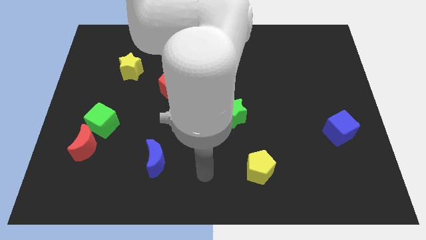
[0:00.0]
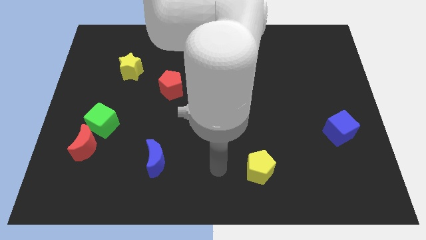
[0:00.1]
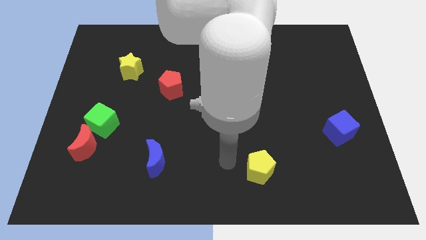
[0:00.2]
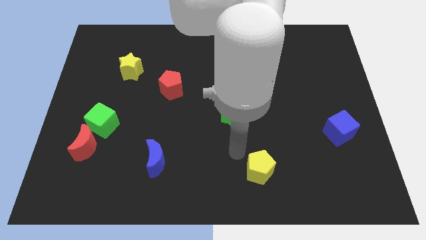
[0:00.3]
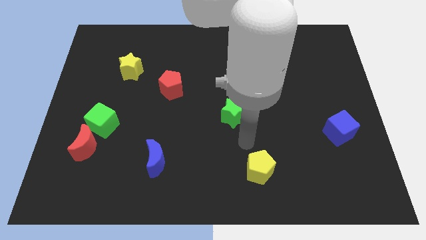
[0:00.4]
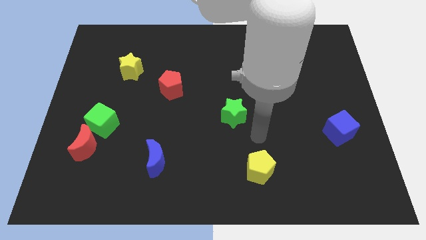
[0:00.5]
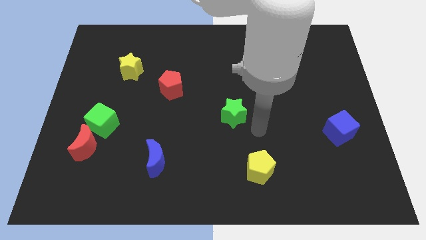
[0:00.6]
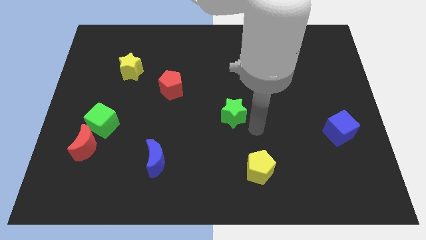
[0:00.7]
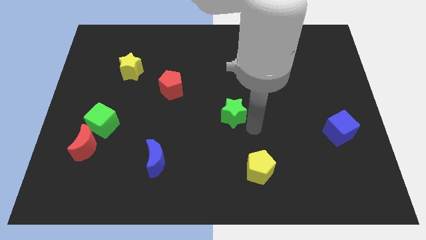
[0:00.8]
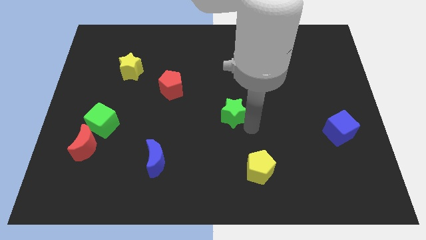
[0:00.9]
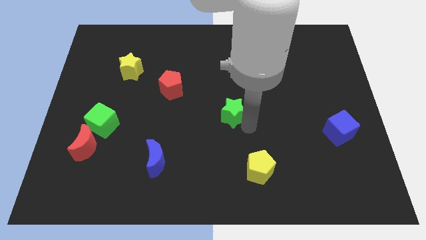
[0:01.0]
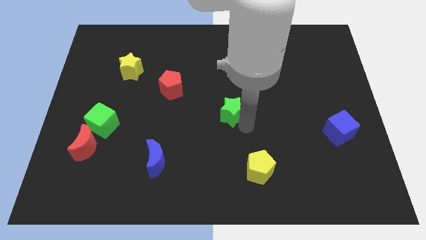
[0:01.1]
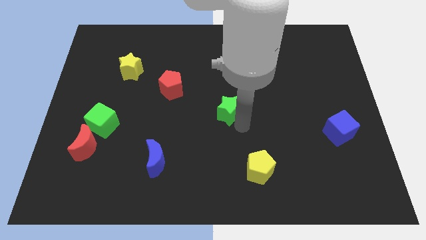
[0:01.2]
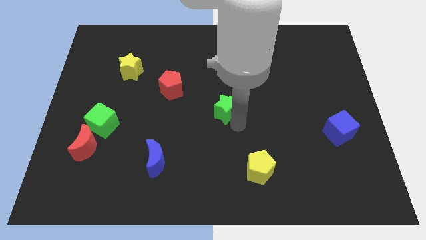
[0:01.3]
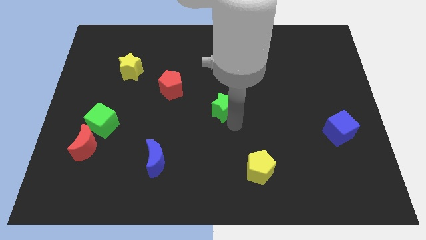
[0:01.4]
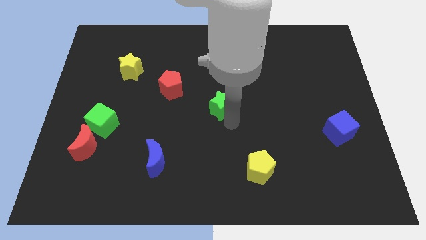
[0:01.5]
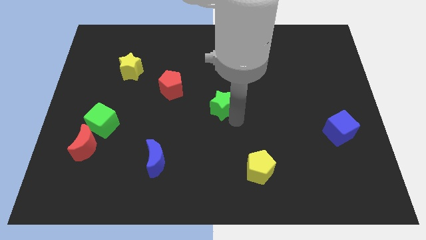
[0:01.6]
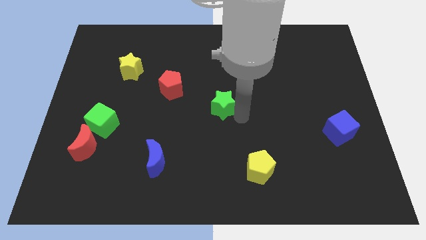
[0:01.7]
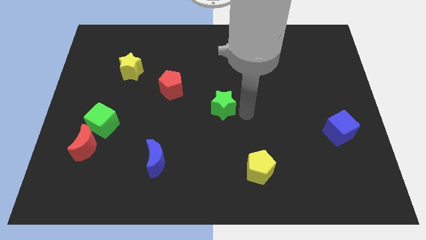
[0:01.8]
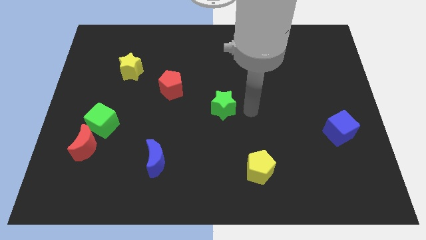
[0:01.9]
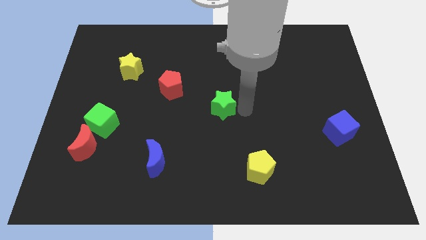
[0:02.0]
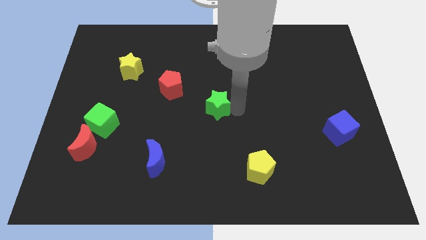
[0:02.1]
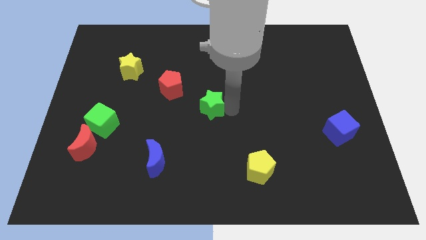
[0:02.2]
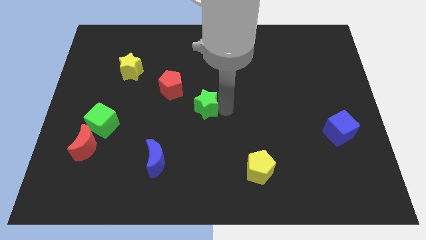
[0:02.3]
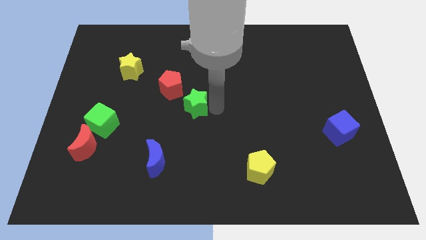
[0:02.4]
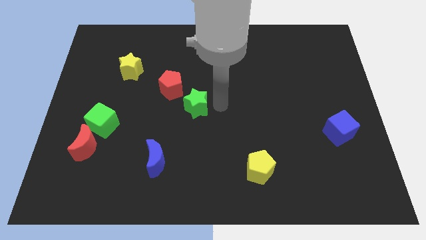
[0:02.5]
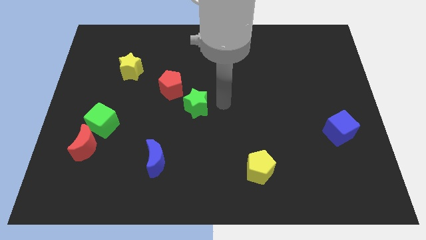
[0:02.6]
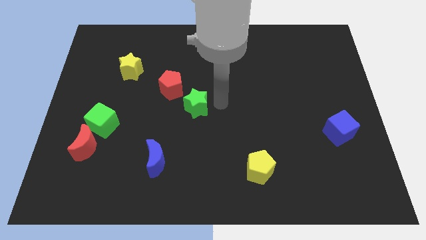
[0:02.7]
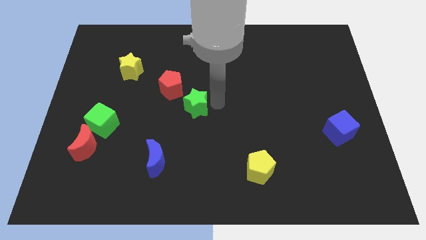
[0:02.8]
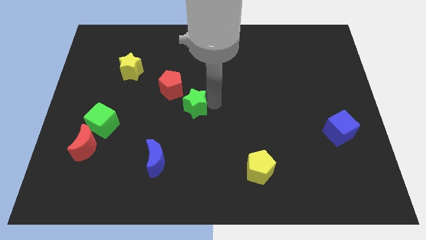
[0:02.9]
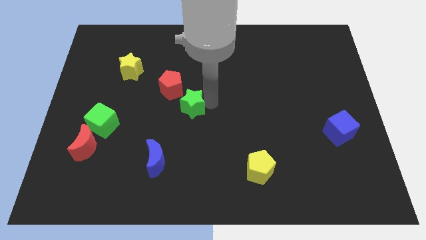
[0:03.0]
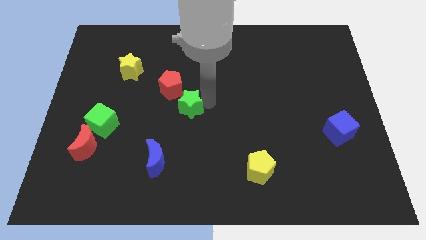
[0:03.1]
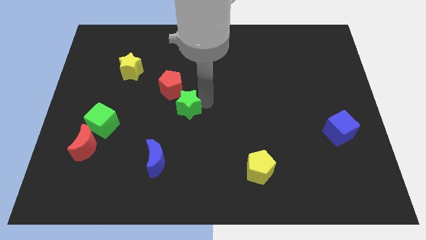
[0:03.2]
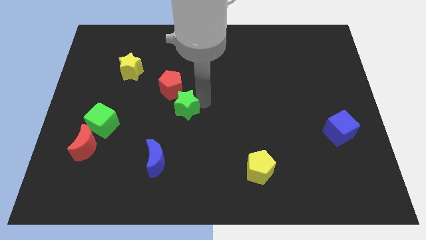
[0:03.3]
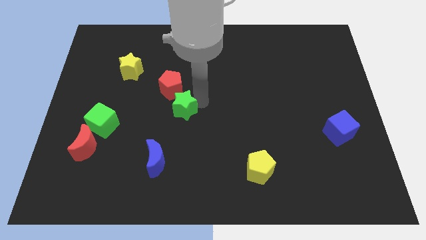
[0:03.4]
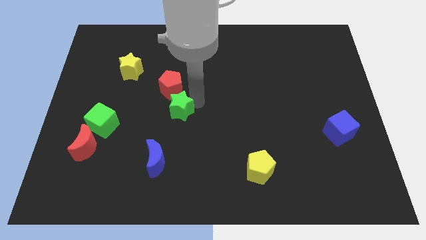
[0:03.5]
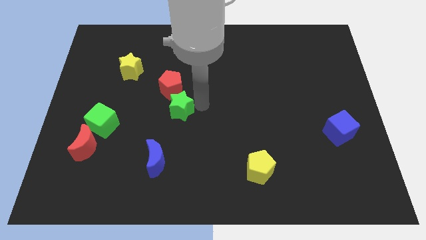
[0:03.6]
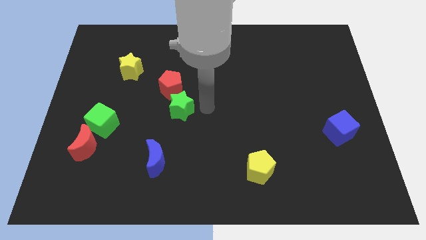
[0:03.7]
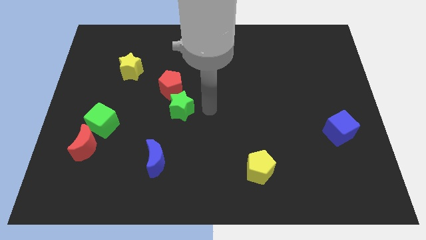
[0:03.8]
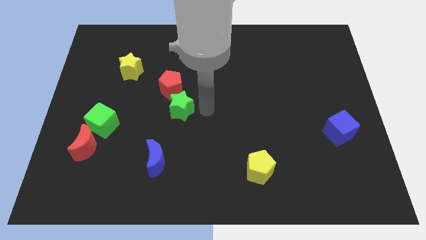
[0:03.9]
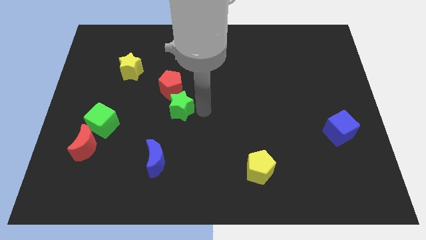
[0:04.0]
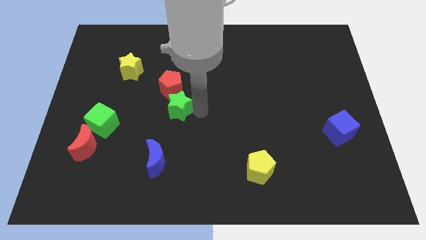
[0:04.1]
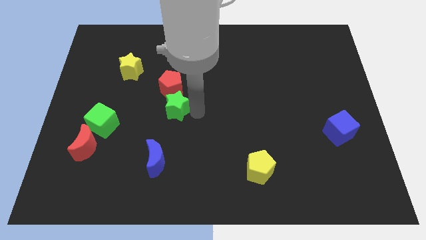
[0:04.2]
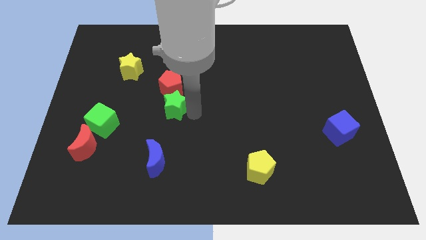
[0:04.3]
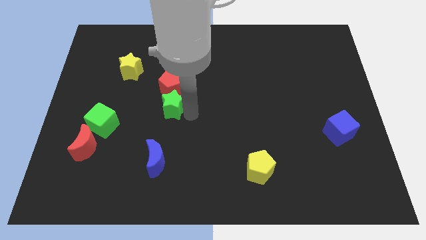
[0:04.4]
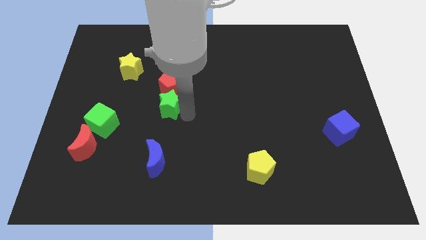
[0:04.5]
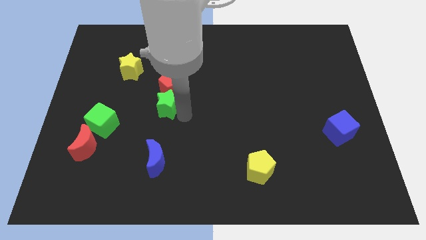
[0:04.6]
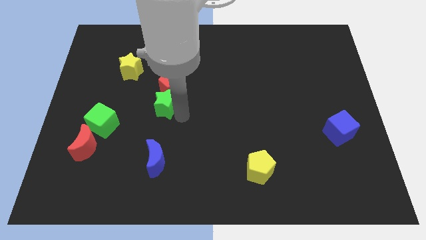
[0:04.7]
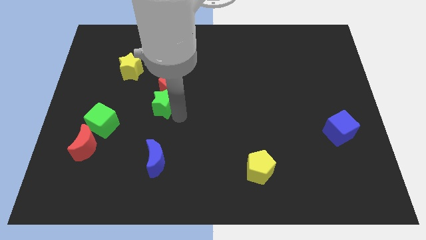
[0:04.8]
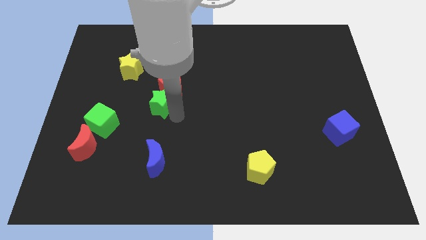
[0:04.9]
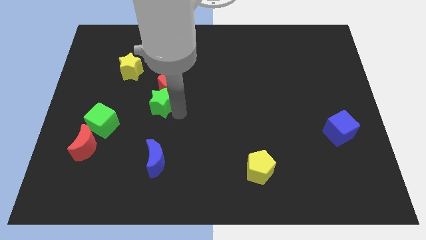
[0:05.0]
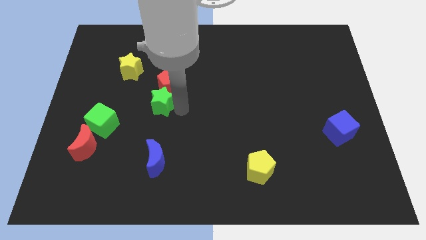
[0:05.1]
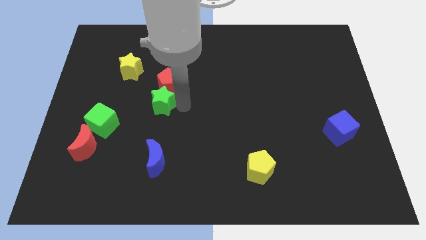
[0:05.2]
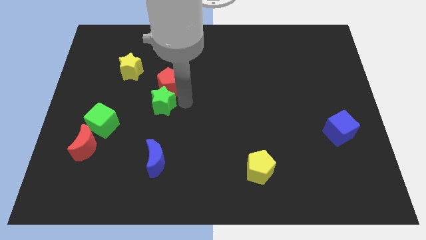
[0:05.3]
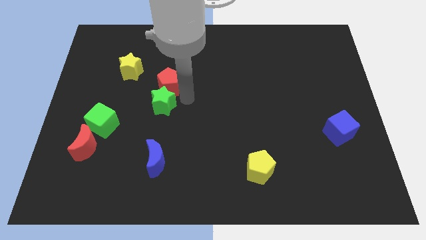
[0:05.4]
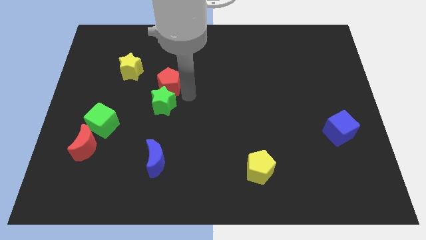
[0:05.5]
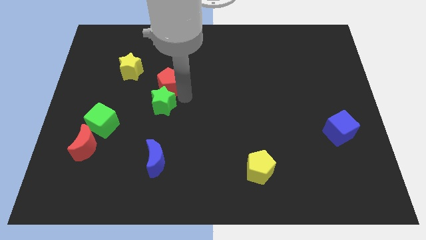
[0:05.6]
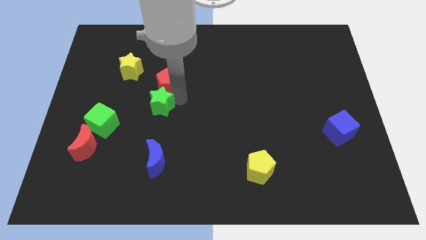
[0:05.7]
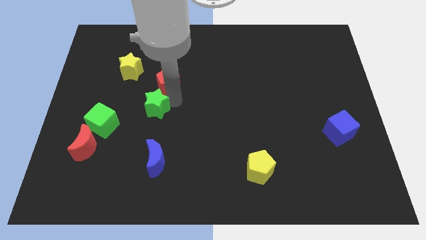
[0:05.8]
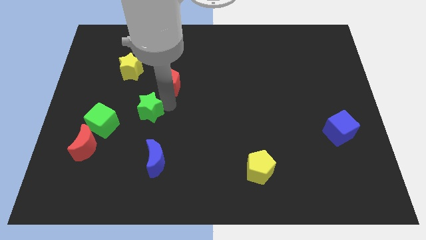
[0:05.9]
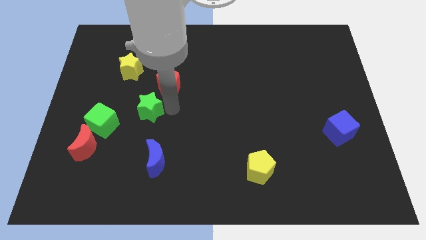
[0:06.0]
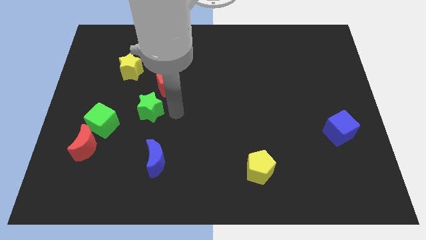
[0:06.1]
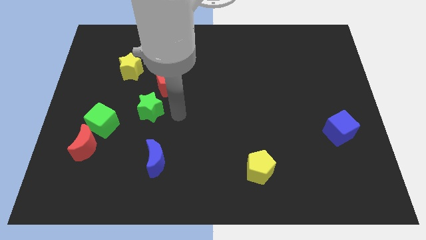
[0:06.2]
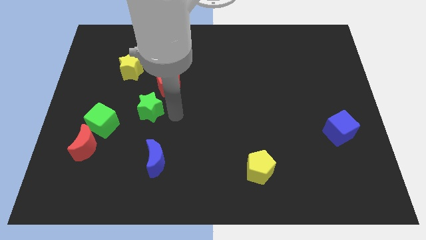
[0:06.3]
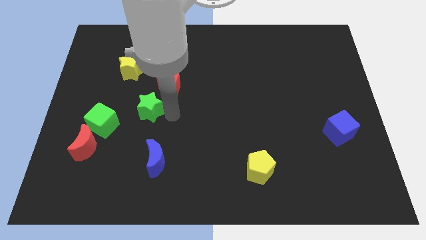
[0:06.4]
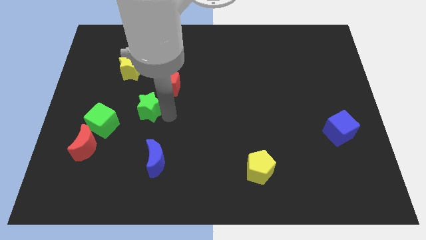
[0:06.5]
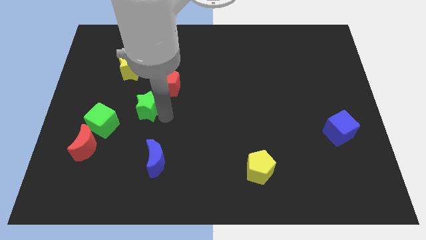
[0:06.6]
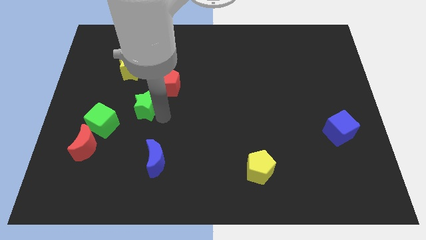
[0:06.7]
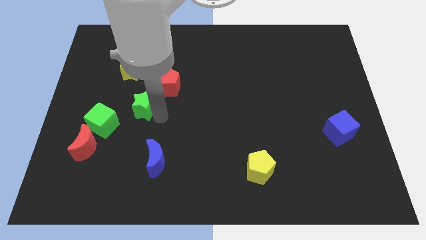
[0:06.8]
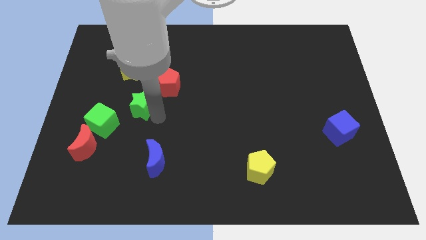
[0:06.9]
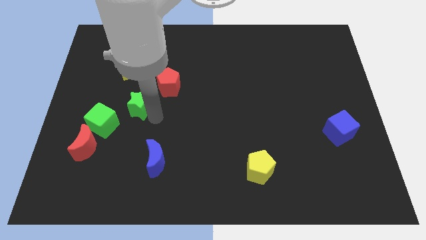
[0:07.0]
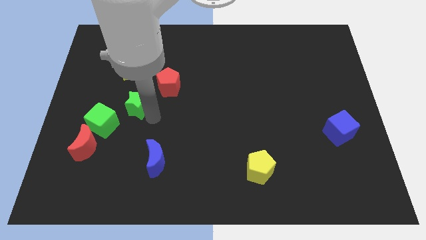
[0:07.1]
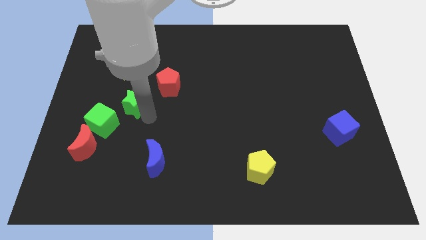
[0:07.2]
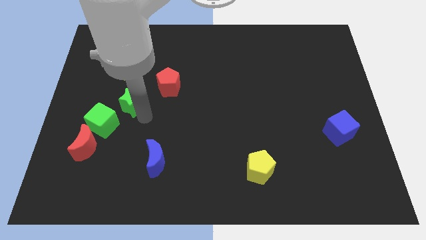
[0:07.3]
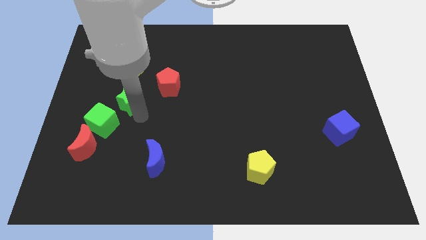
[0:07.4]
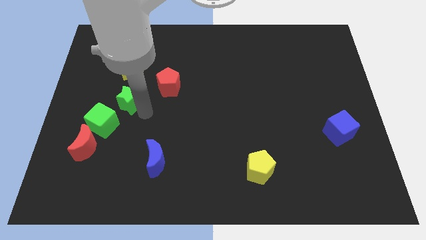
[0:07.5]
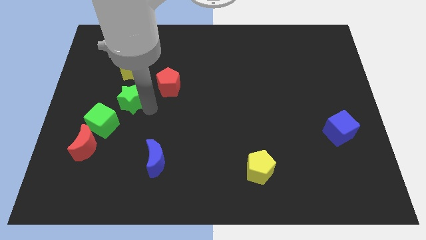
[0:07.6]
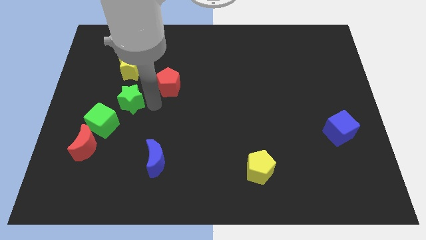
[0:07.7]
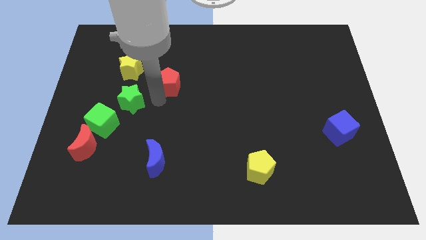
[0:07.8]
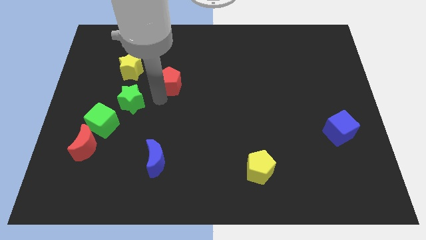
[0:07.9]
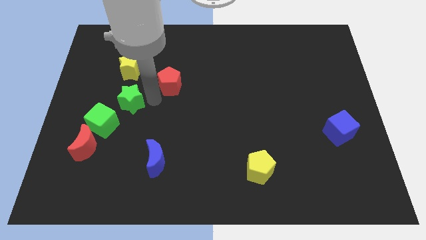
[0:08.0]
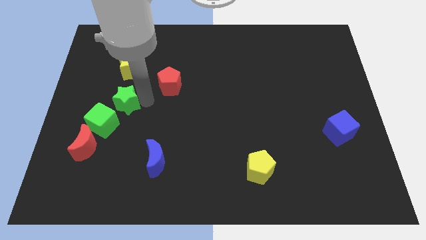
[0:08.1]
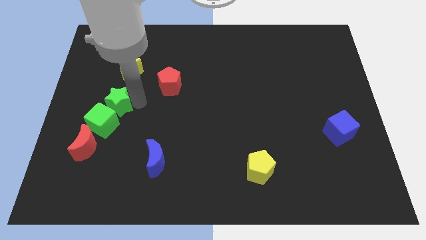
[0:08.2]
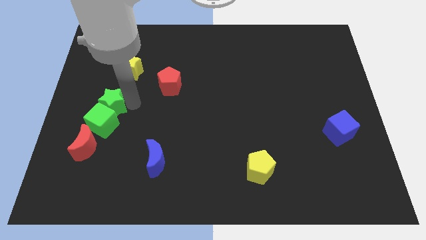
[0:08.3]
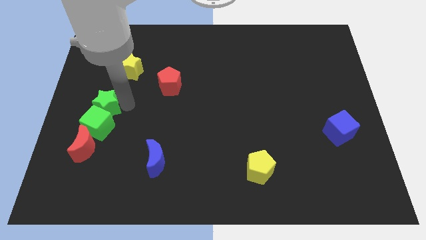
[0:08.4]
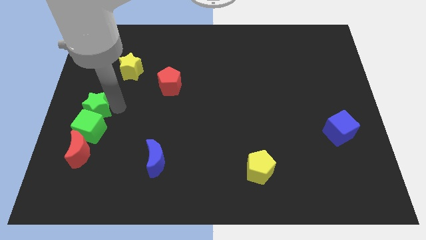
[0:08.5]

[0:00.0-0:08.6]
push the green star to the center left
